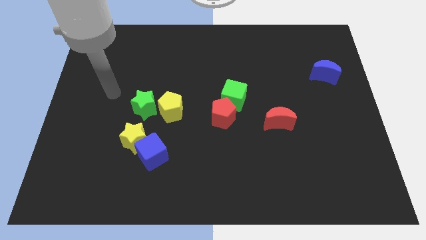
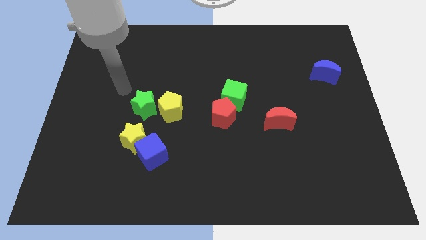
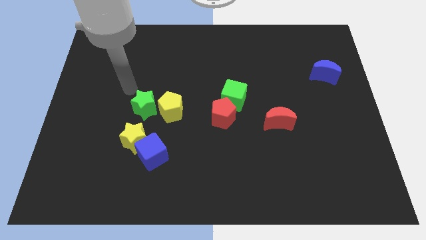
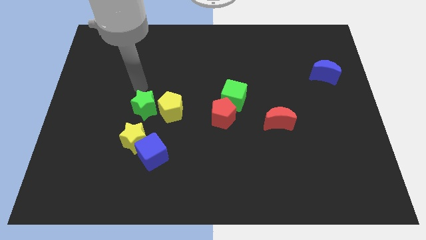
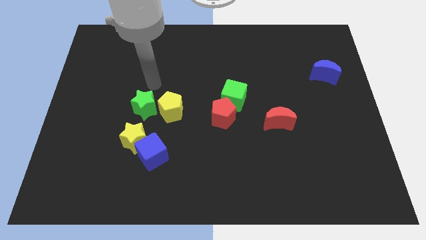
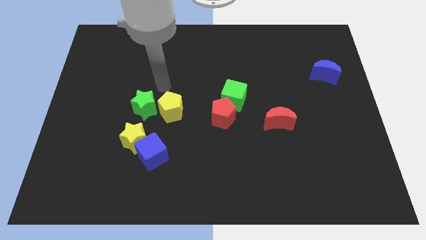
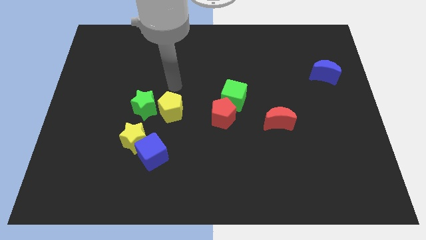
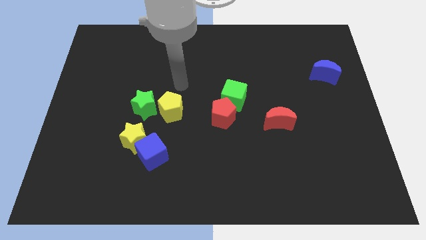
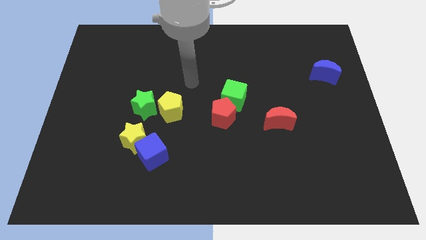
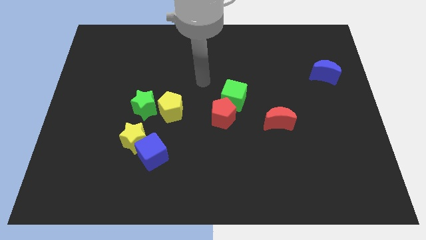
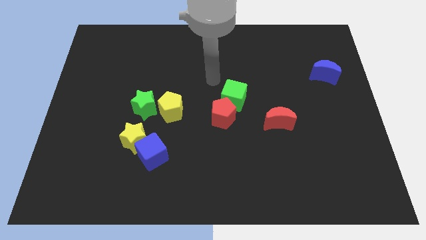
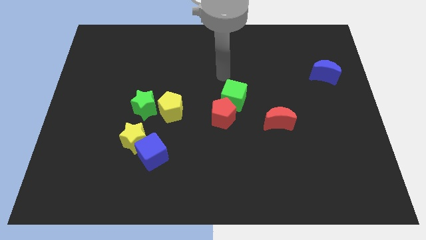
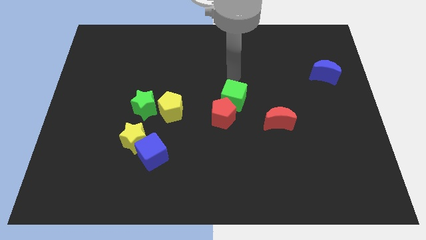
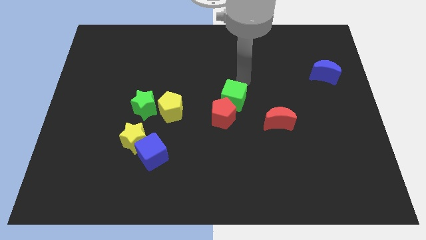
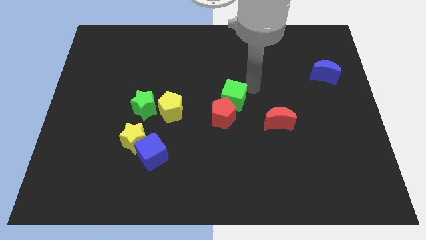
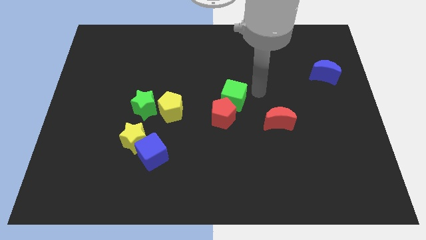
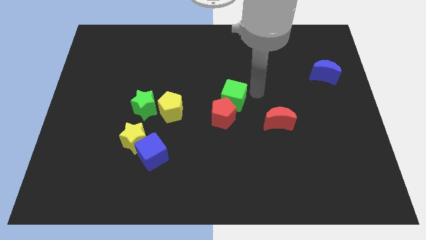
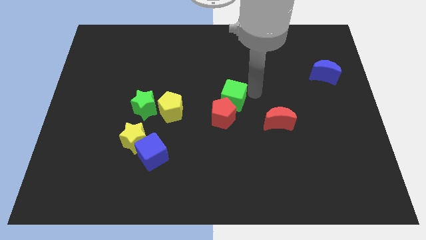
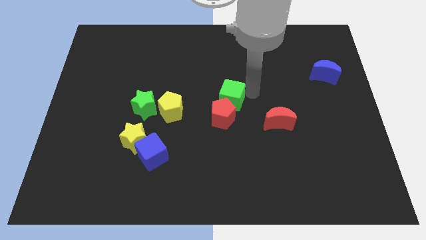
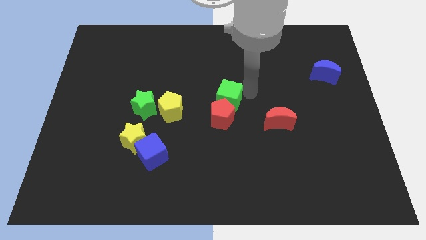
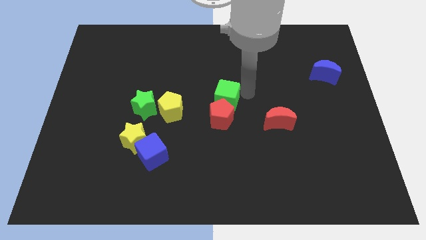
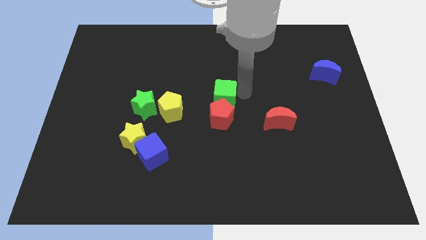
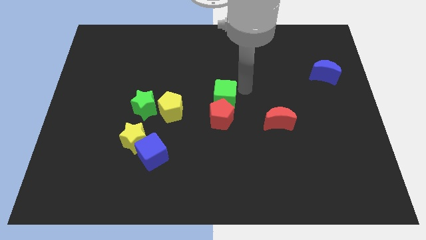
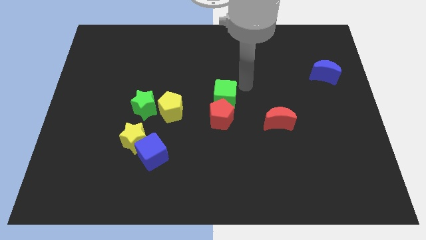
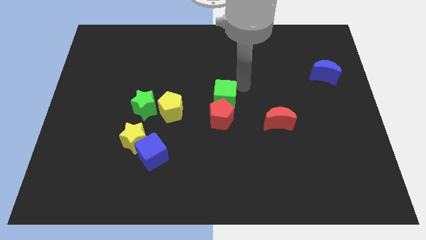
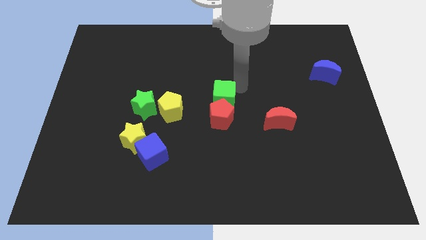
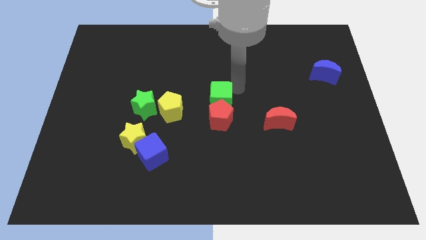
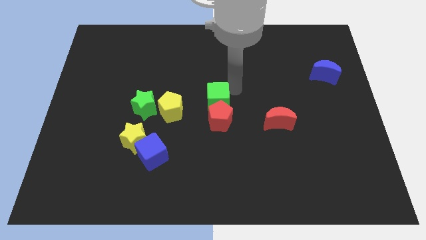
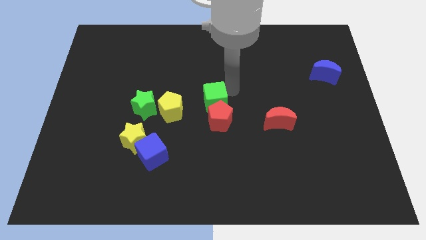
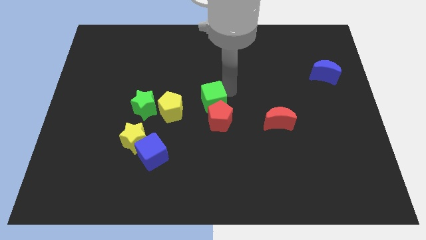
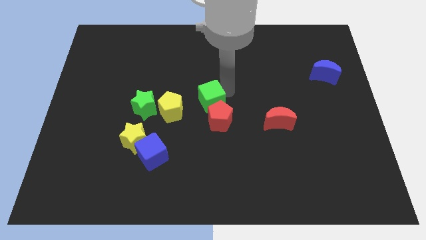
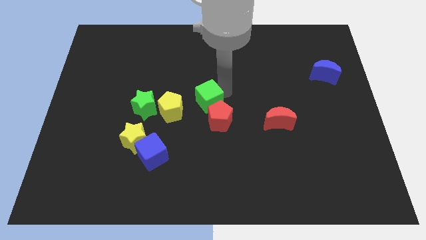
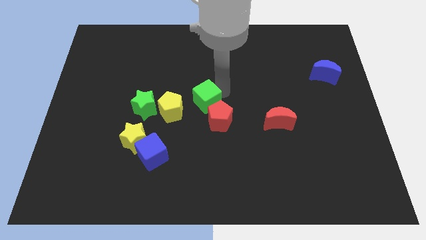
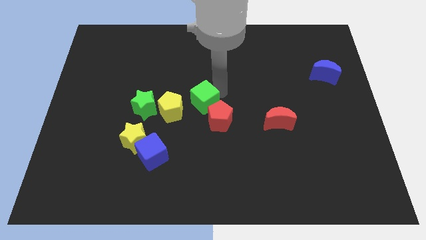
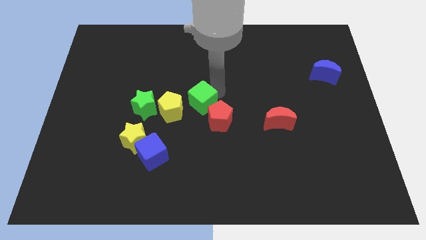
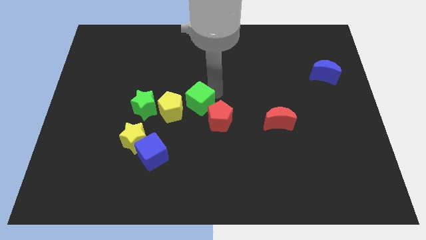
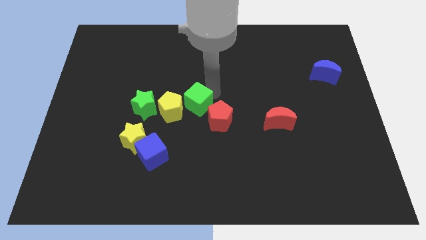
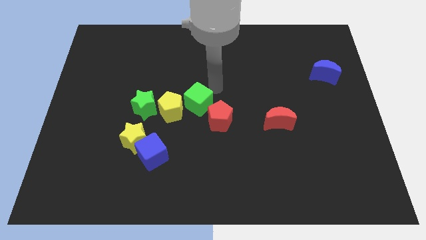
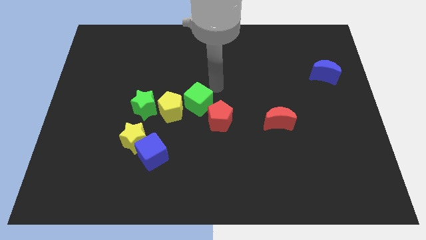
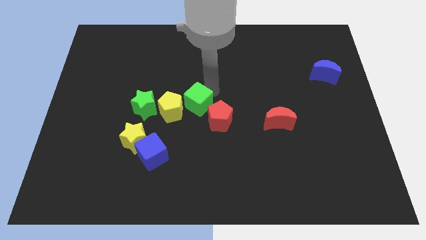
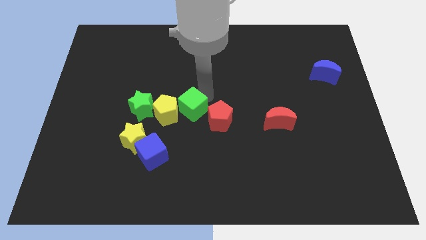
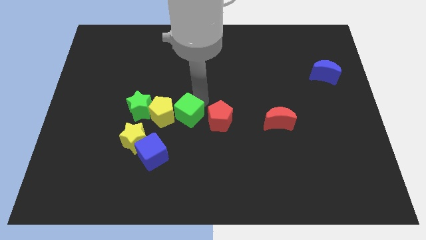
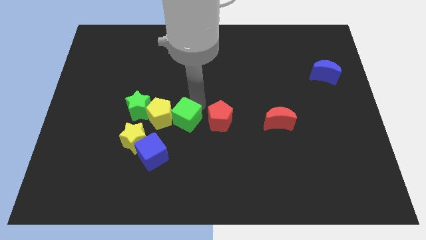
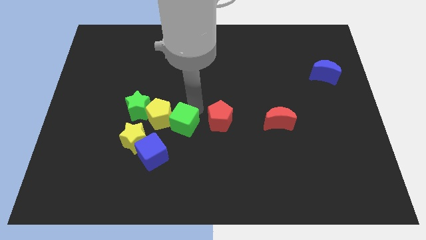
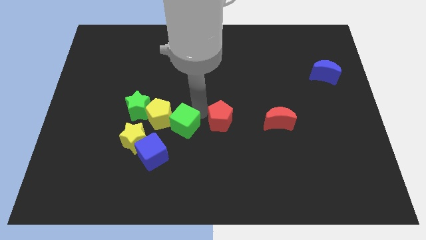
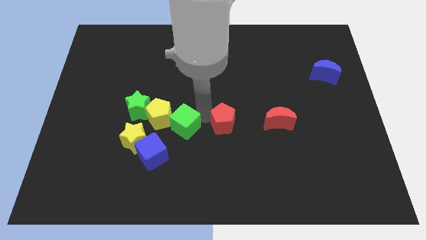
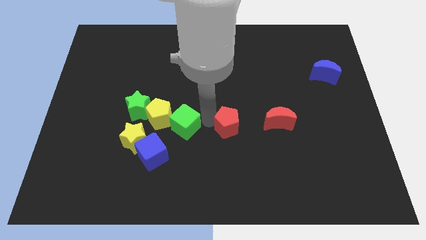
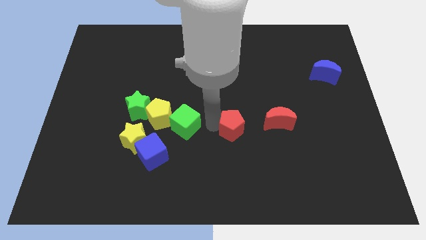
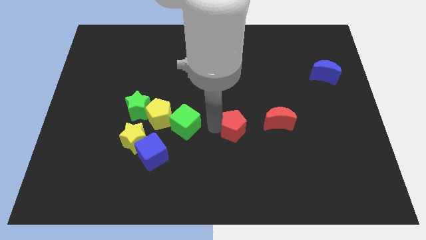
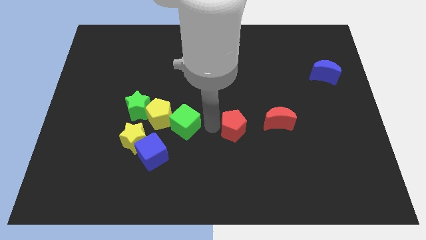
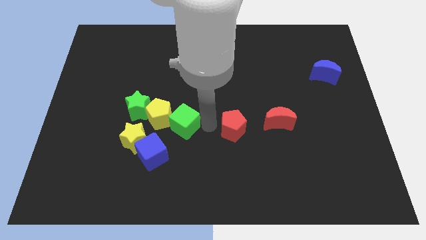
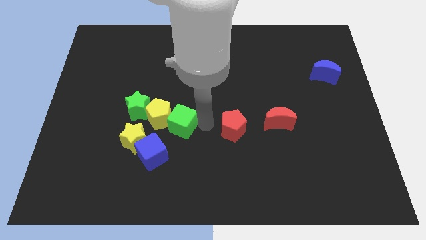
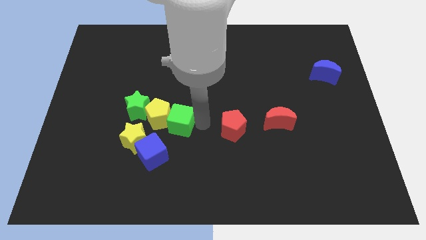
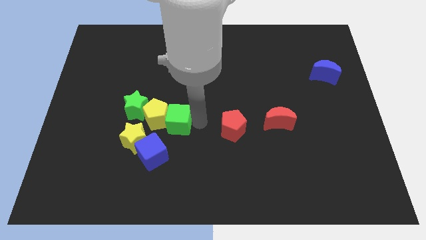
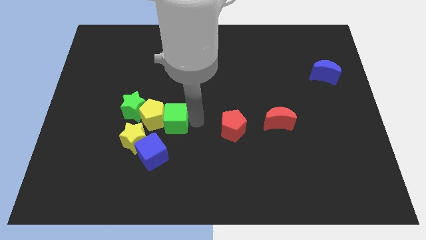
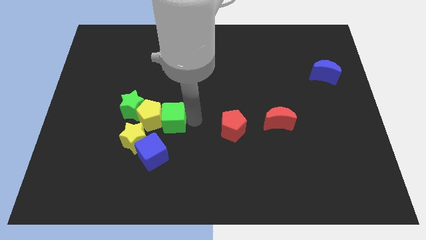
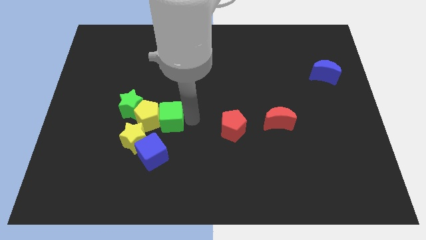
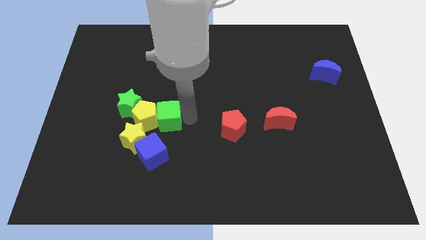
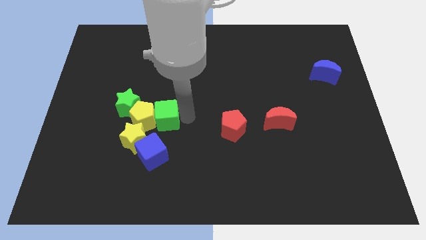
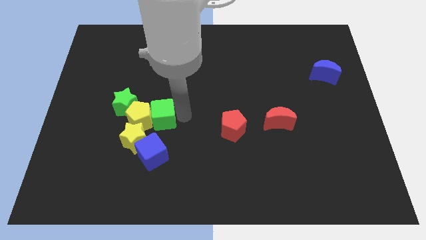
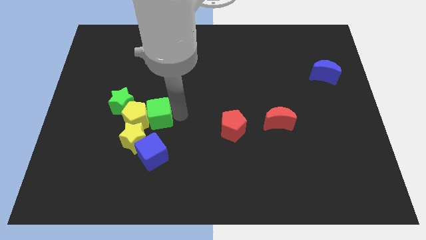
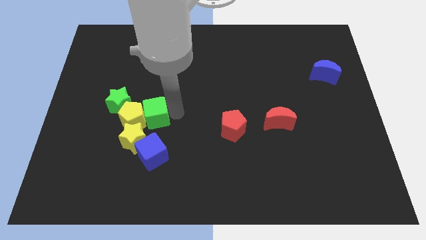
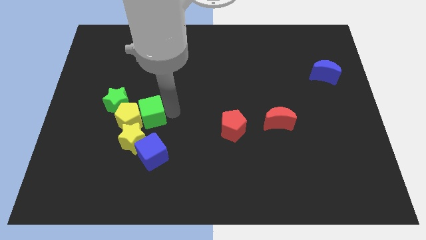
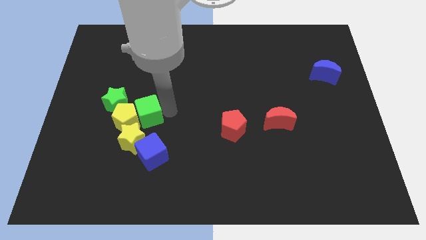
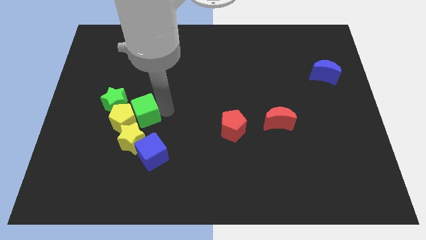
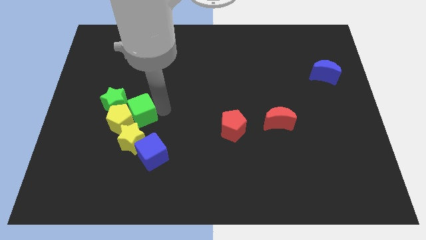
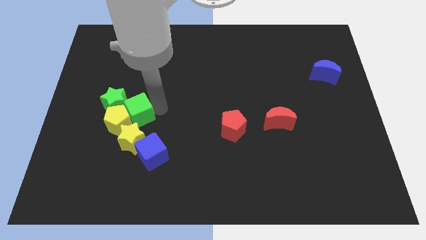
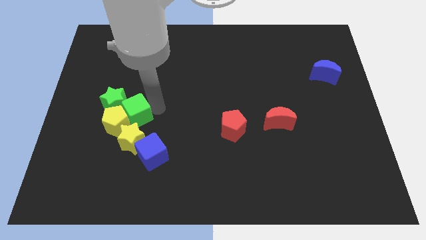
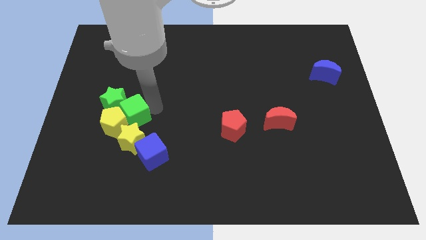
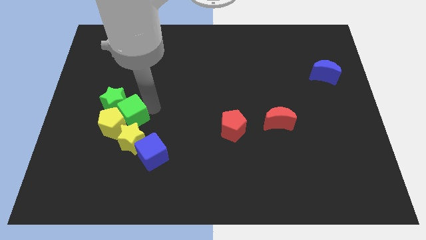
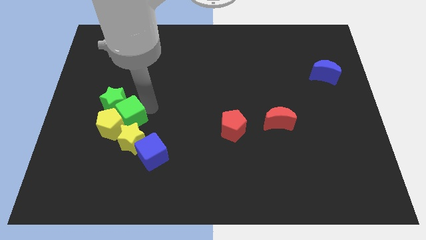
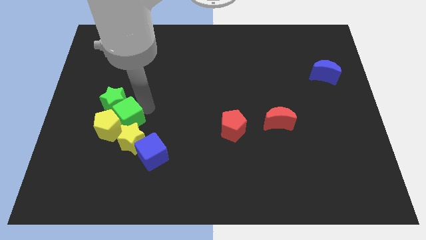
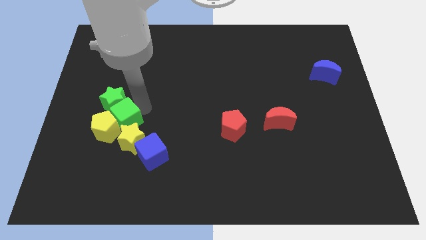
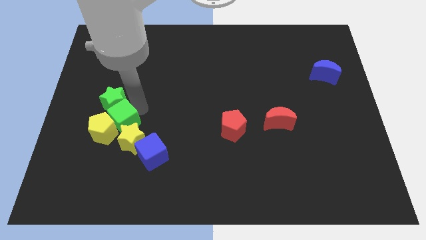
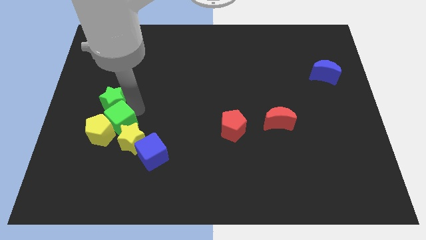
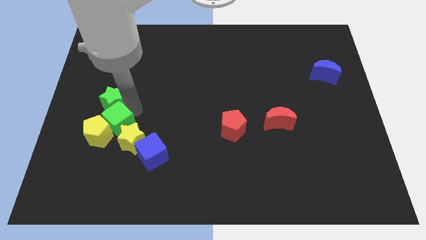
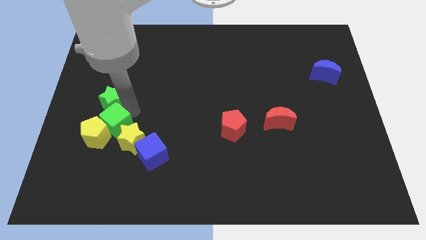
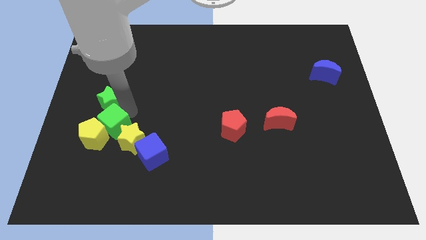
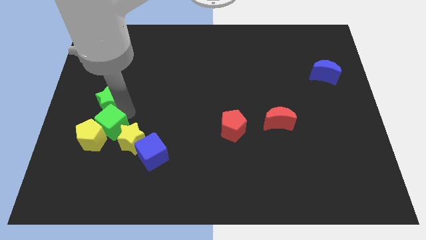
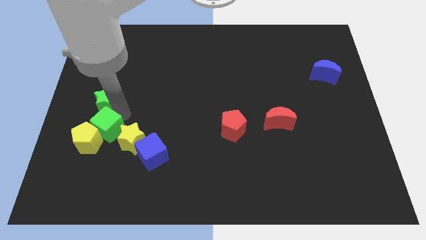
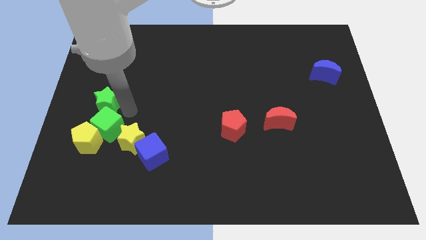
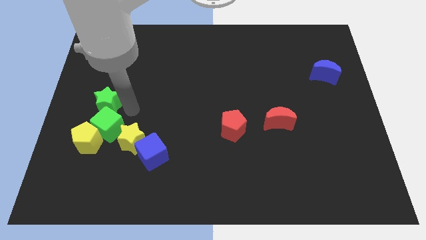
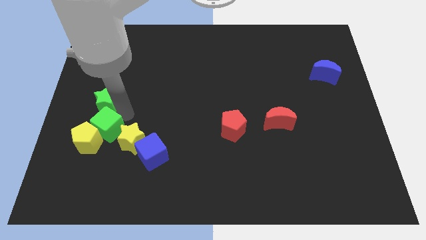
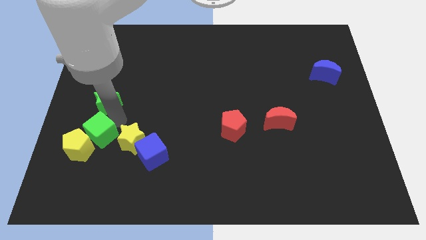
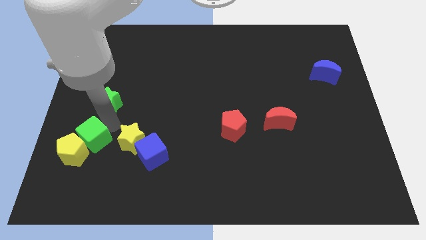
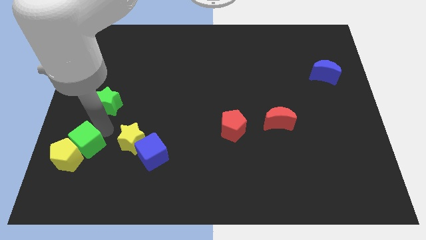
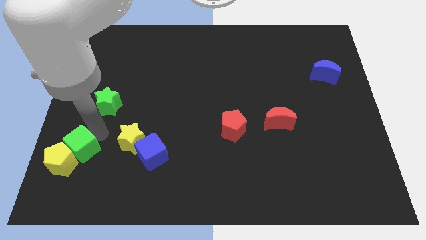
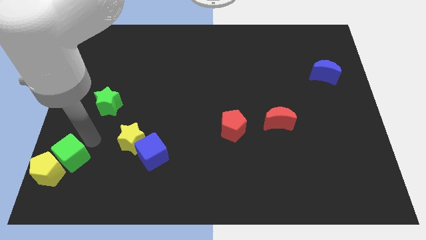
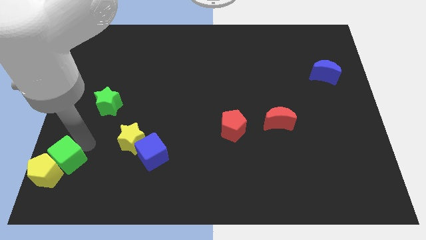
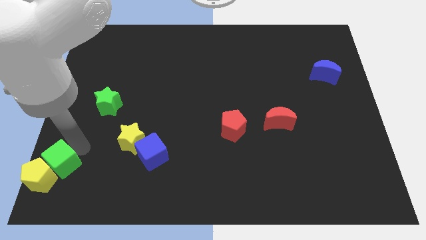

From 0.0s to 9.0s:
push the green cube to the bottom left of the board
